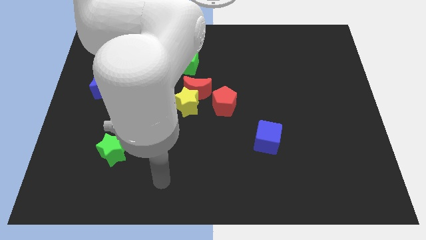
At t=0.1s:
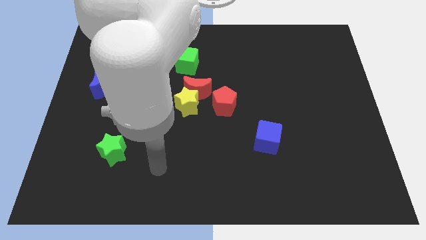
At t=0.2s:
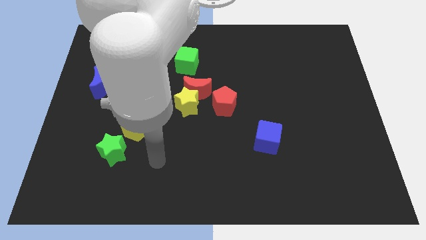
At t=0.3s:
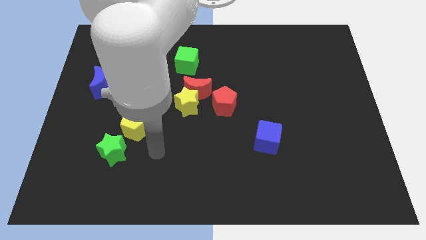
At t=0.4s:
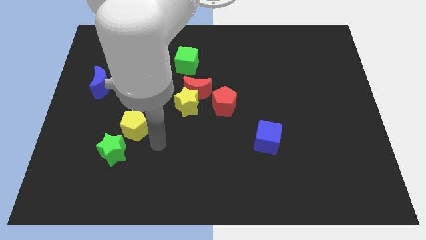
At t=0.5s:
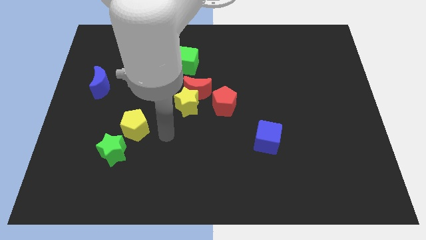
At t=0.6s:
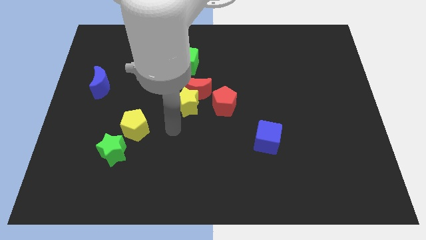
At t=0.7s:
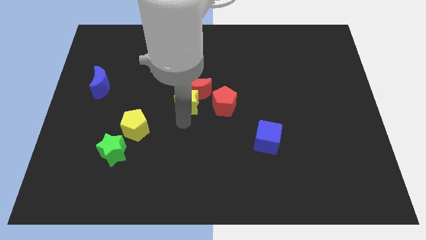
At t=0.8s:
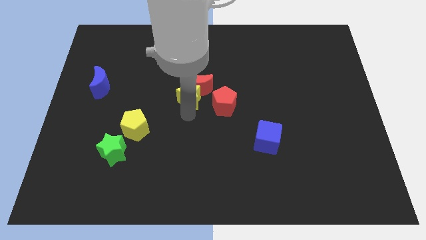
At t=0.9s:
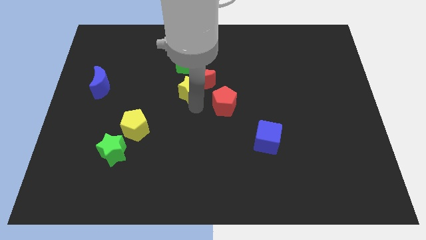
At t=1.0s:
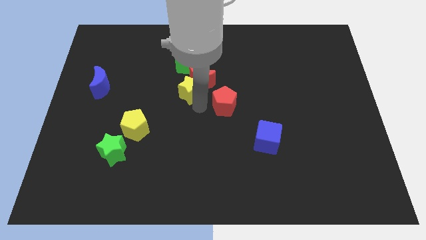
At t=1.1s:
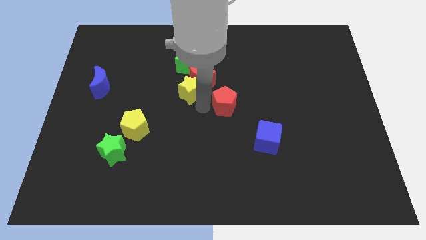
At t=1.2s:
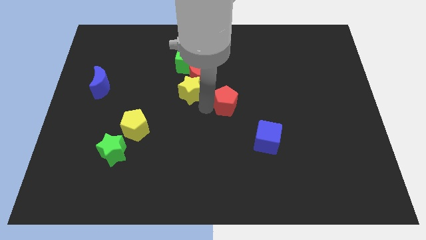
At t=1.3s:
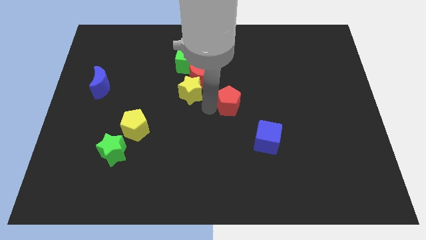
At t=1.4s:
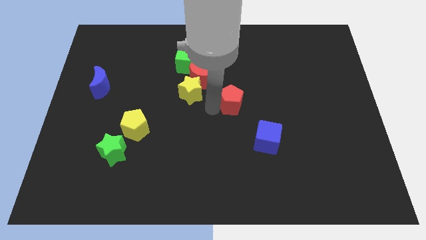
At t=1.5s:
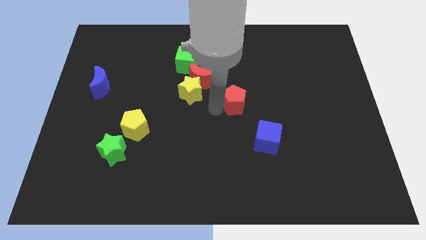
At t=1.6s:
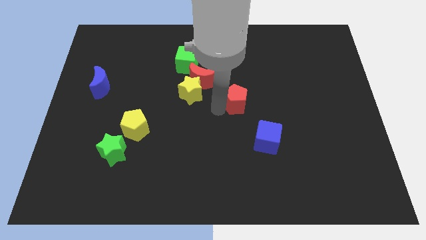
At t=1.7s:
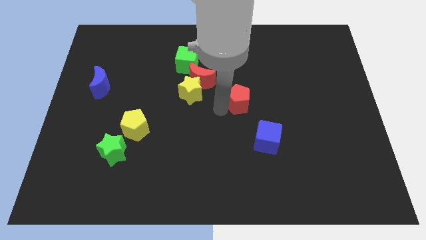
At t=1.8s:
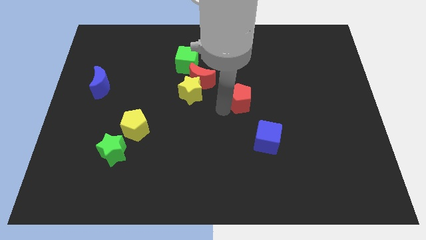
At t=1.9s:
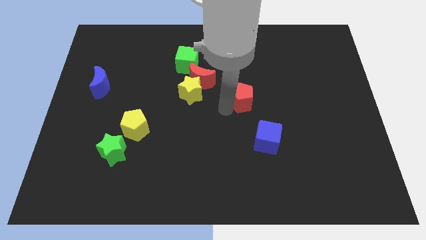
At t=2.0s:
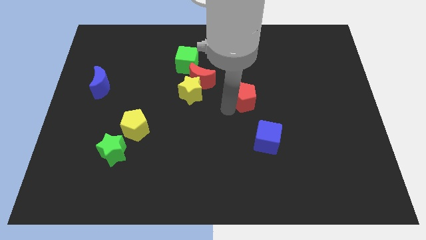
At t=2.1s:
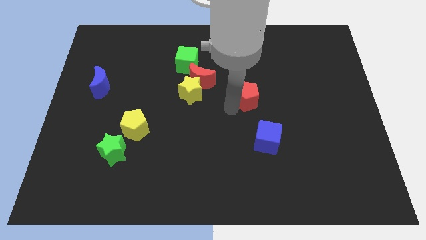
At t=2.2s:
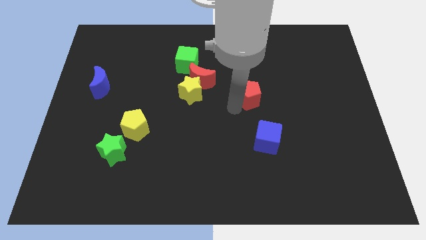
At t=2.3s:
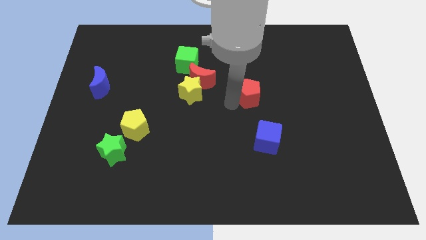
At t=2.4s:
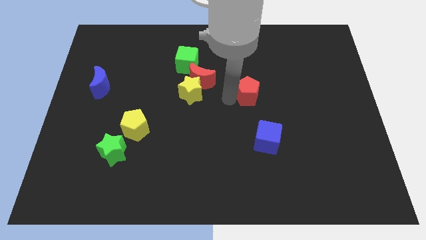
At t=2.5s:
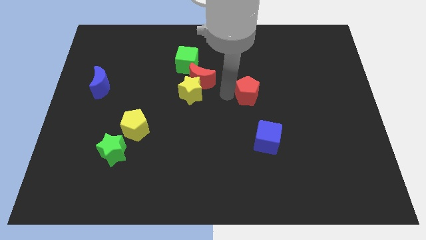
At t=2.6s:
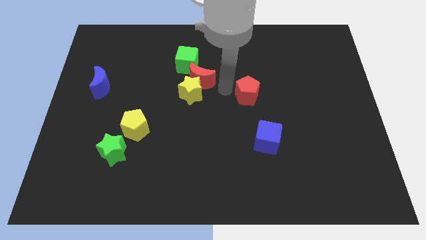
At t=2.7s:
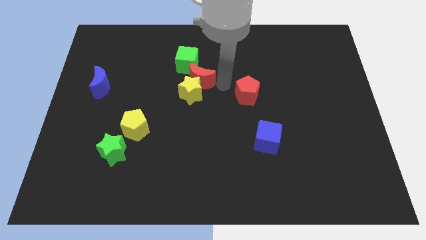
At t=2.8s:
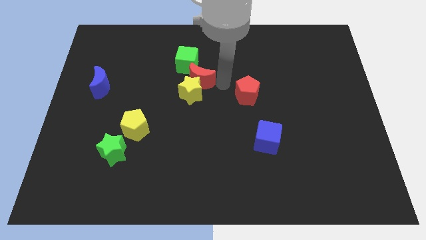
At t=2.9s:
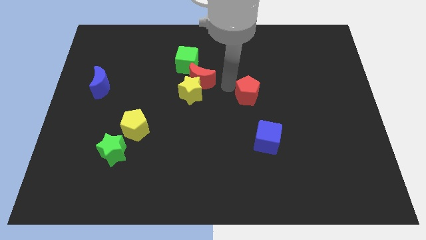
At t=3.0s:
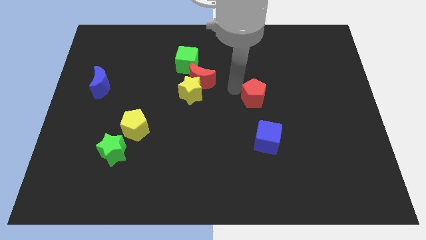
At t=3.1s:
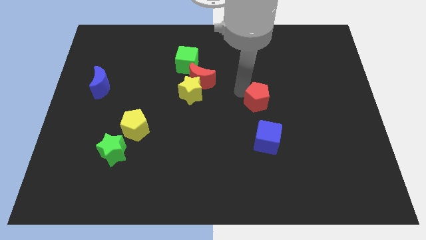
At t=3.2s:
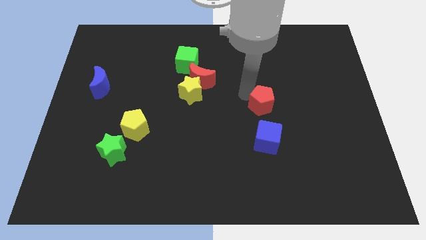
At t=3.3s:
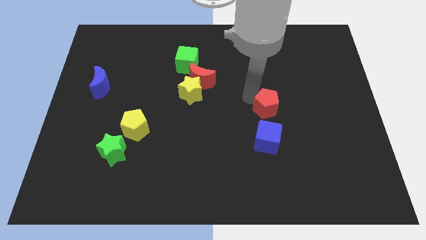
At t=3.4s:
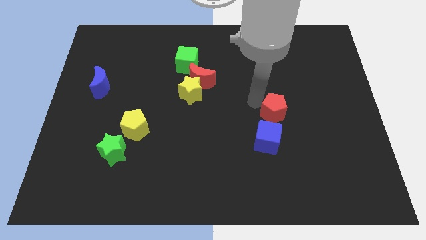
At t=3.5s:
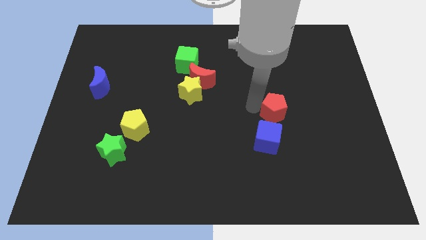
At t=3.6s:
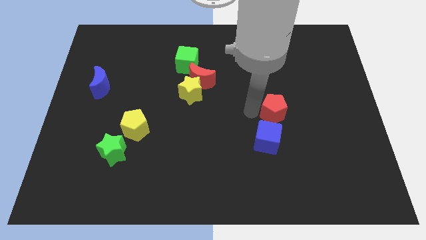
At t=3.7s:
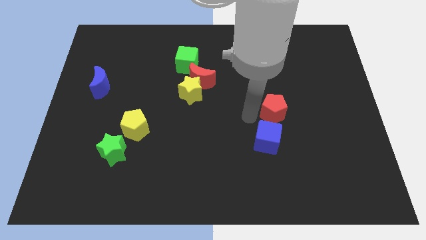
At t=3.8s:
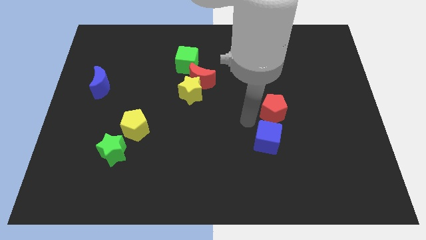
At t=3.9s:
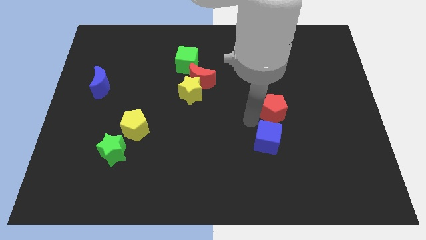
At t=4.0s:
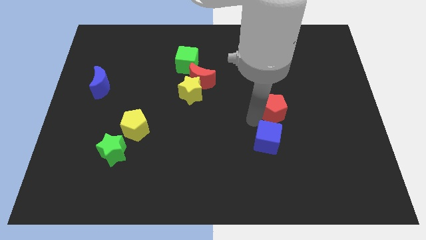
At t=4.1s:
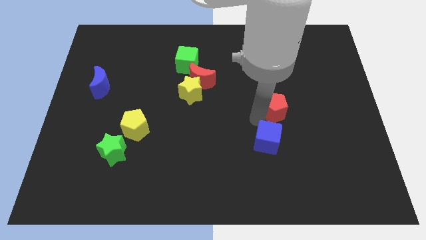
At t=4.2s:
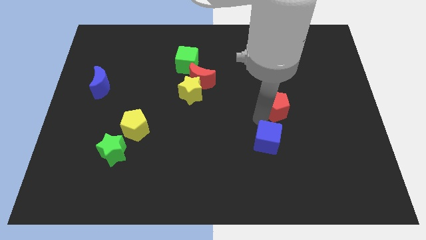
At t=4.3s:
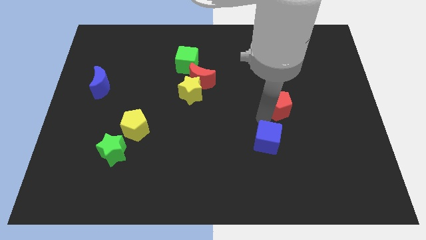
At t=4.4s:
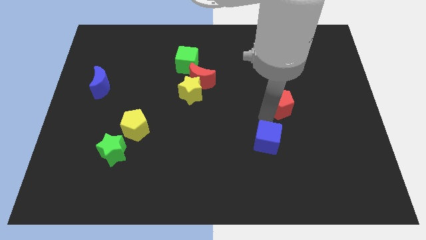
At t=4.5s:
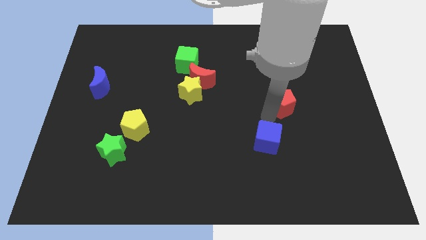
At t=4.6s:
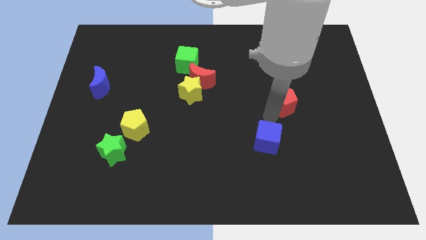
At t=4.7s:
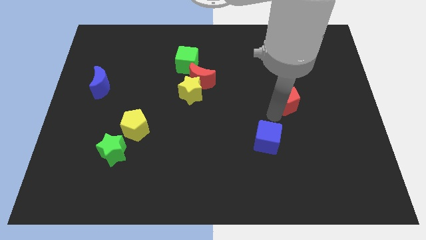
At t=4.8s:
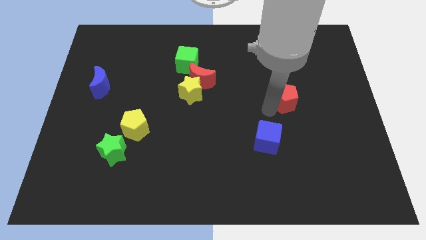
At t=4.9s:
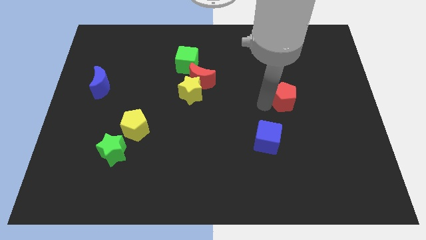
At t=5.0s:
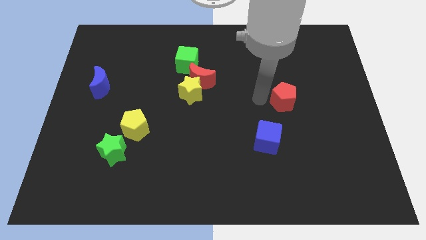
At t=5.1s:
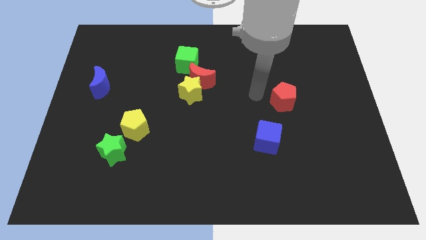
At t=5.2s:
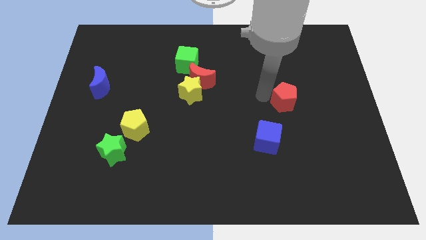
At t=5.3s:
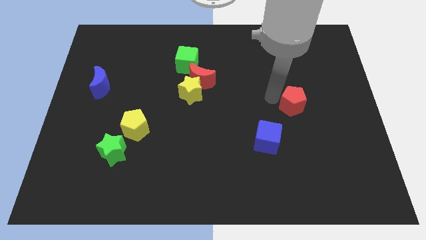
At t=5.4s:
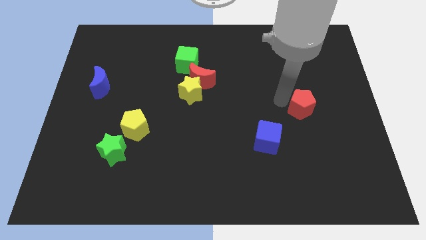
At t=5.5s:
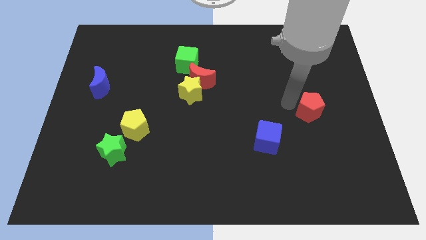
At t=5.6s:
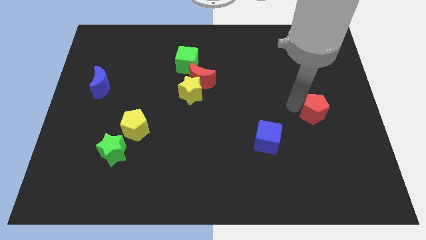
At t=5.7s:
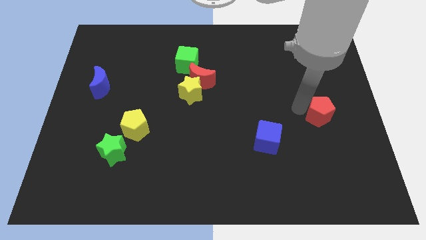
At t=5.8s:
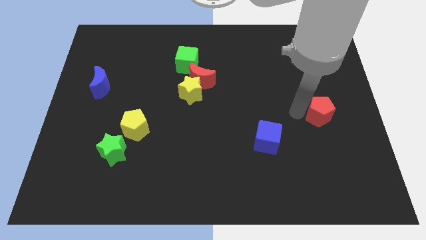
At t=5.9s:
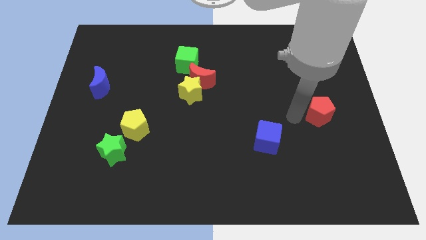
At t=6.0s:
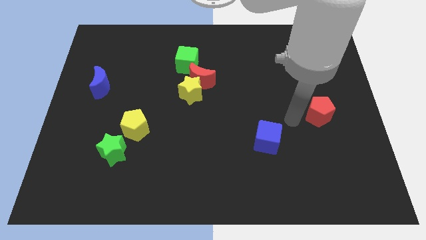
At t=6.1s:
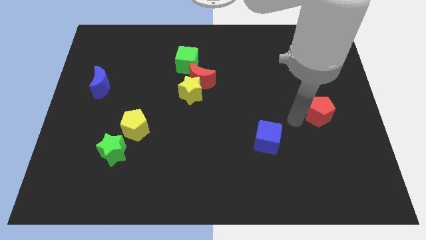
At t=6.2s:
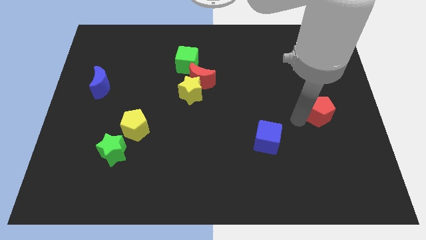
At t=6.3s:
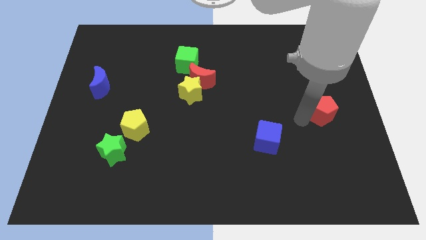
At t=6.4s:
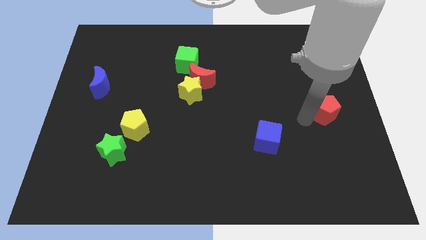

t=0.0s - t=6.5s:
push the red pentagon to the center right
